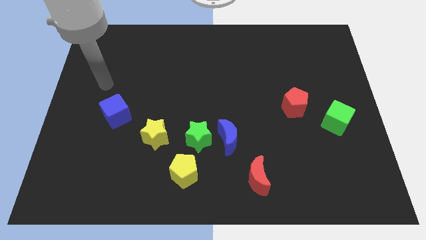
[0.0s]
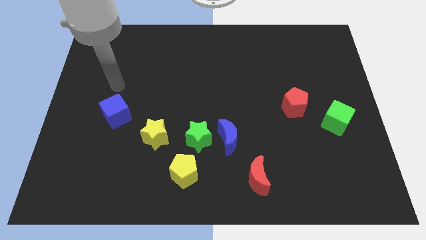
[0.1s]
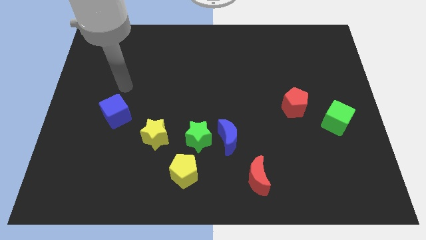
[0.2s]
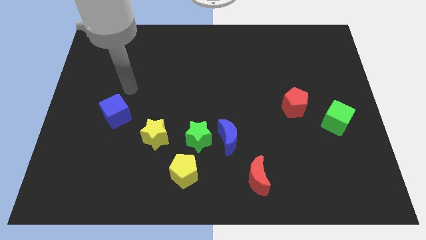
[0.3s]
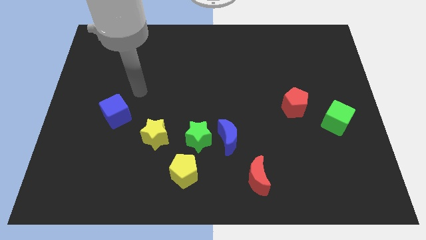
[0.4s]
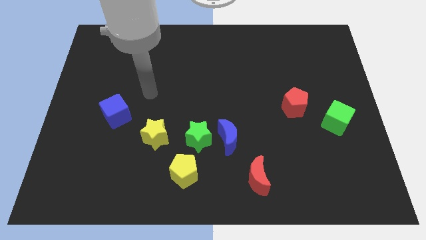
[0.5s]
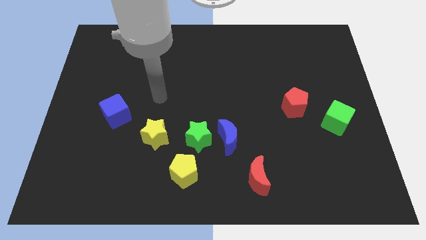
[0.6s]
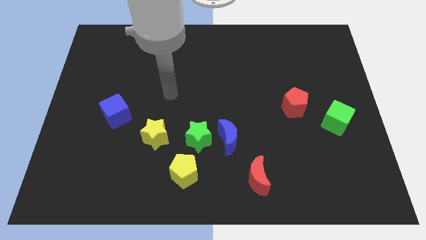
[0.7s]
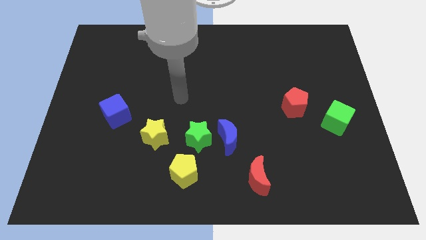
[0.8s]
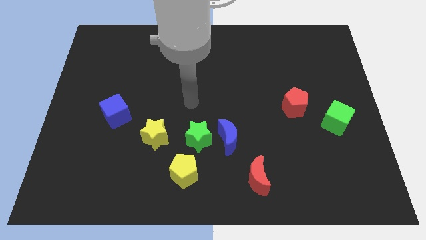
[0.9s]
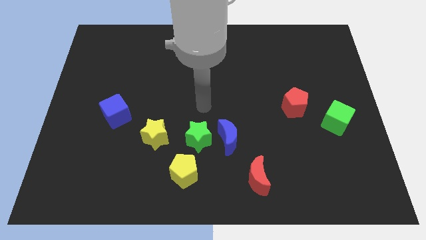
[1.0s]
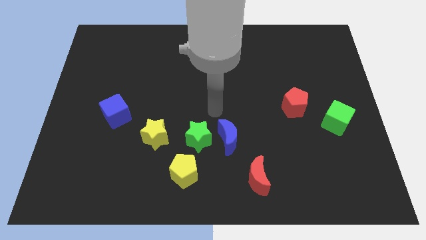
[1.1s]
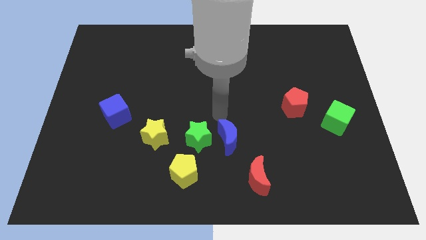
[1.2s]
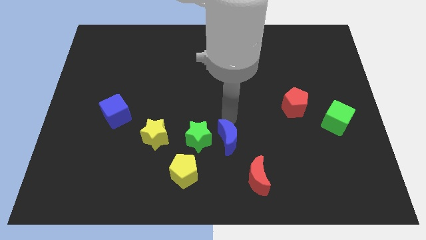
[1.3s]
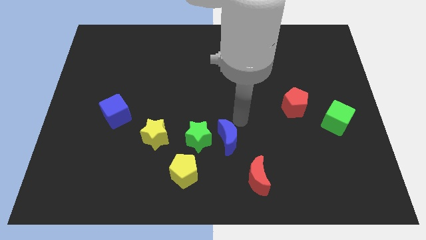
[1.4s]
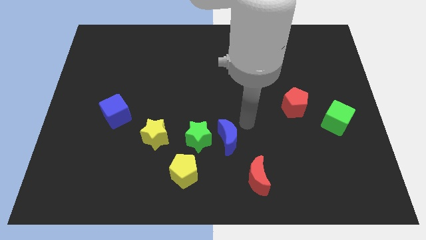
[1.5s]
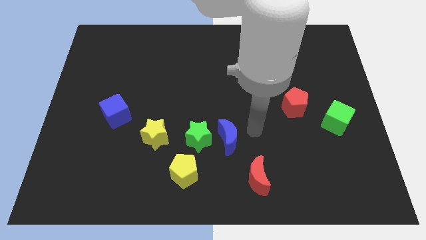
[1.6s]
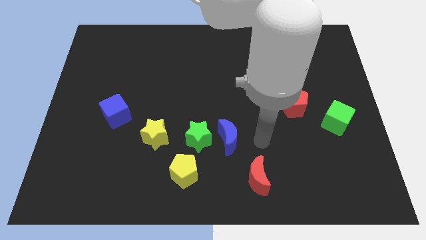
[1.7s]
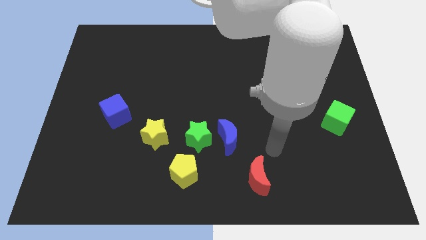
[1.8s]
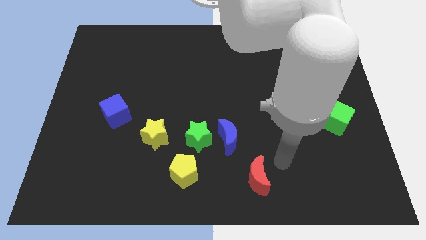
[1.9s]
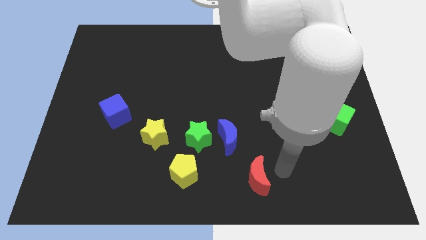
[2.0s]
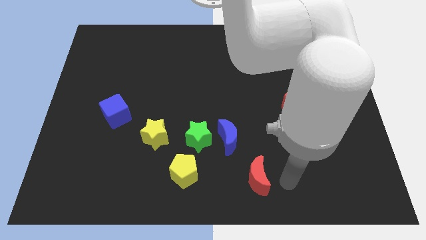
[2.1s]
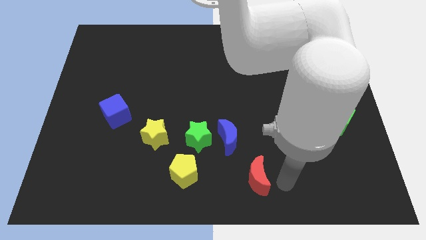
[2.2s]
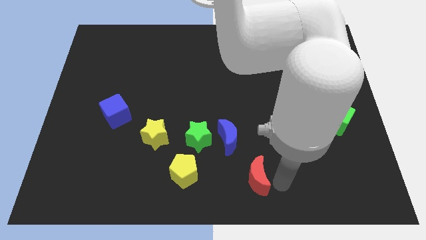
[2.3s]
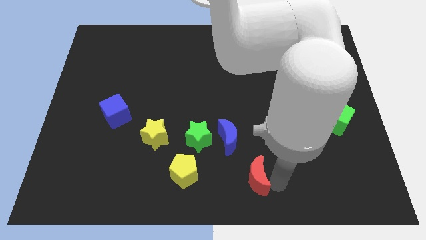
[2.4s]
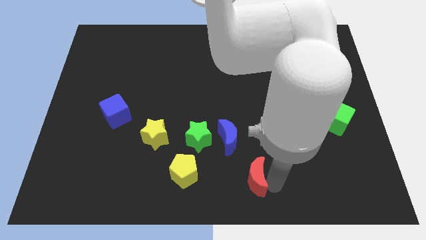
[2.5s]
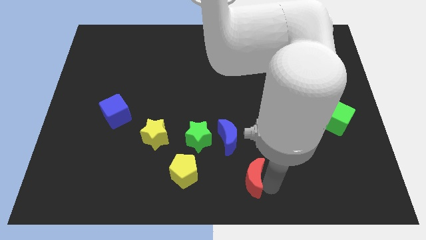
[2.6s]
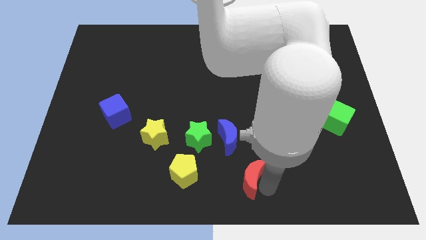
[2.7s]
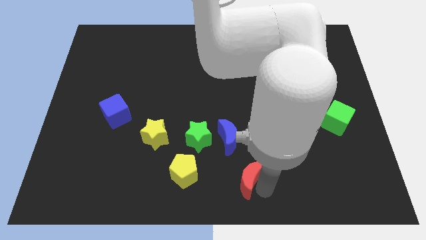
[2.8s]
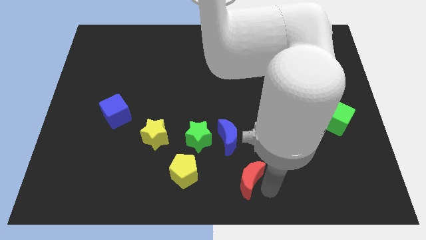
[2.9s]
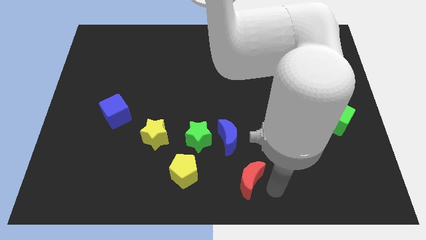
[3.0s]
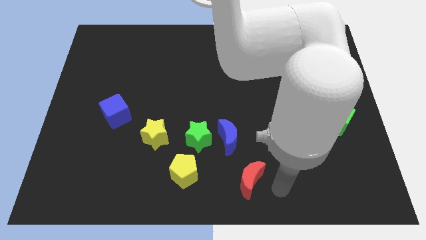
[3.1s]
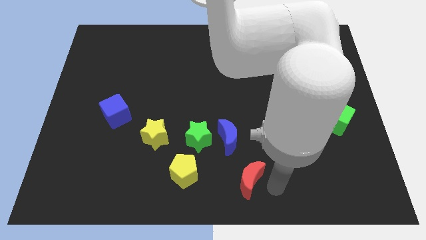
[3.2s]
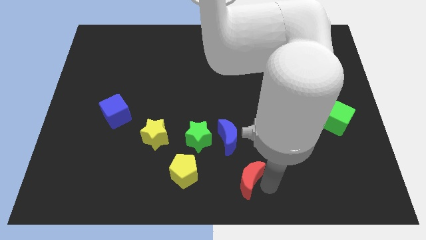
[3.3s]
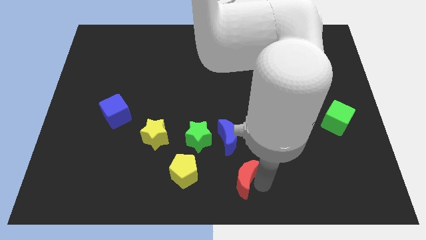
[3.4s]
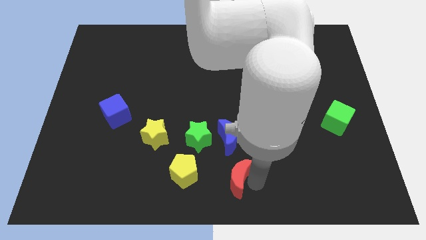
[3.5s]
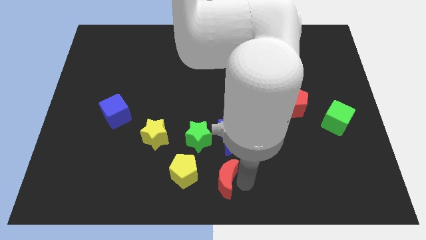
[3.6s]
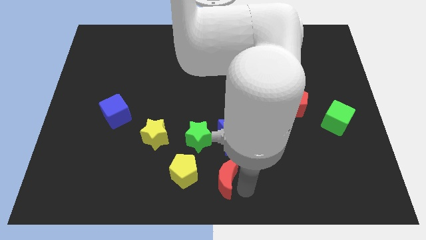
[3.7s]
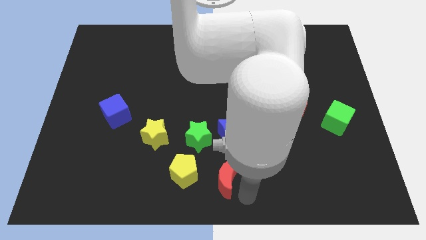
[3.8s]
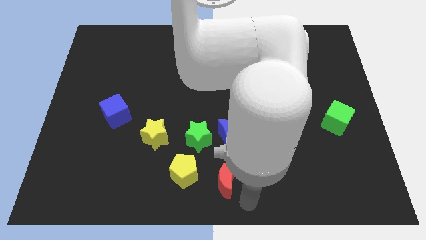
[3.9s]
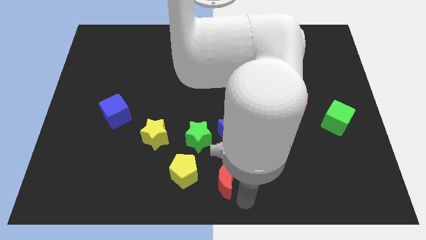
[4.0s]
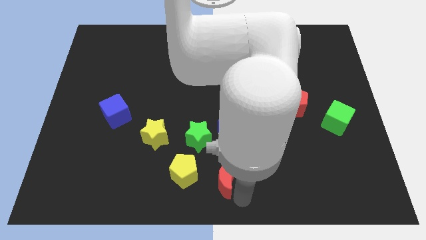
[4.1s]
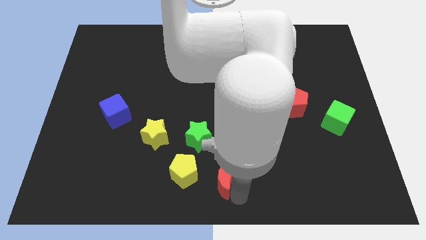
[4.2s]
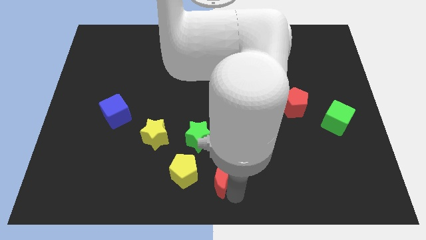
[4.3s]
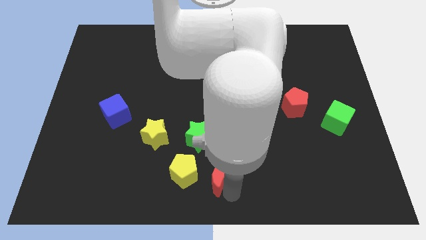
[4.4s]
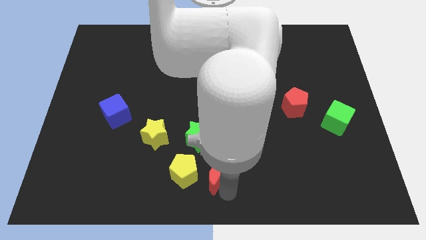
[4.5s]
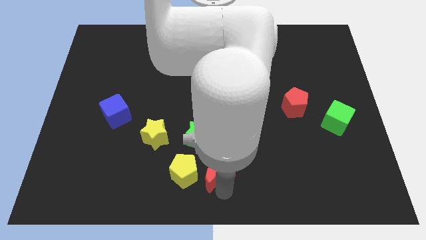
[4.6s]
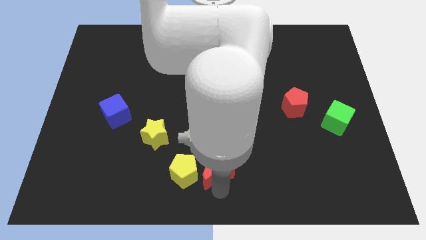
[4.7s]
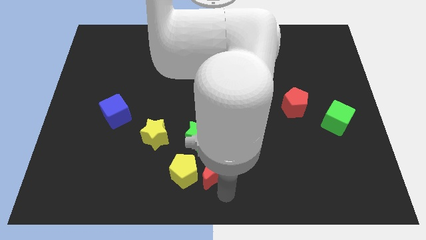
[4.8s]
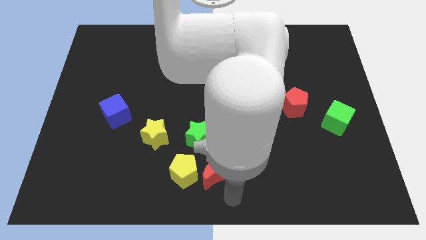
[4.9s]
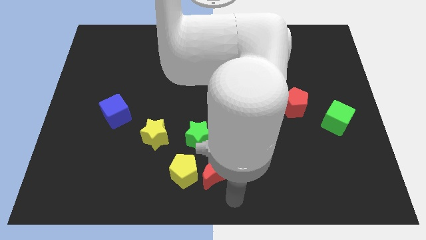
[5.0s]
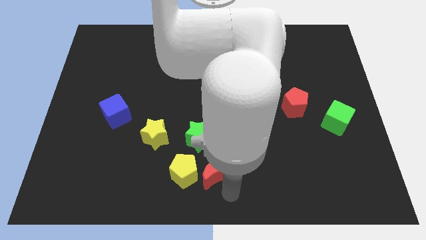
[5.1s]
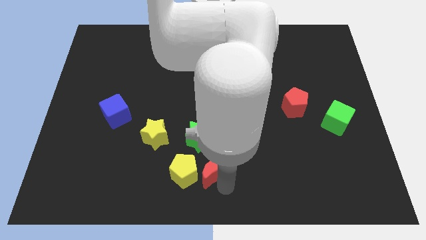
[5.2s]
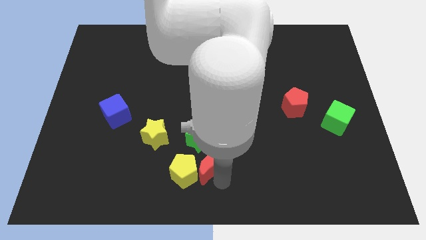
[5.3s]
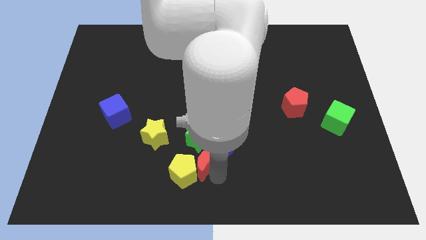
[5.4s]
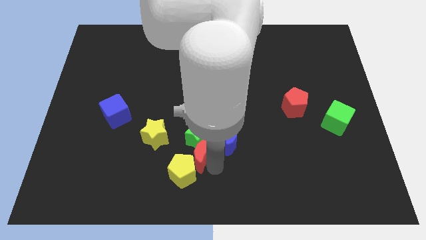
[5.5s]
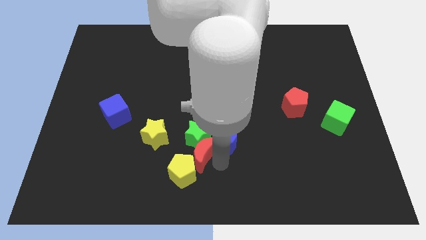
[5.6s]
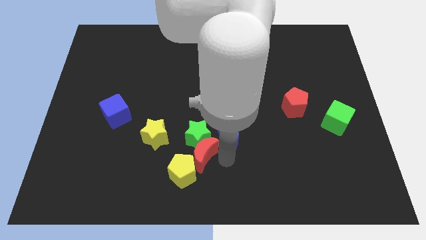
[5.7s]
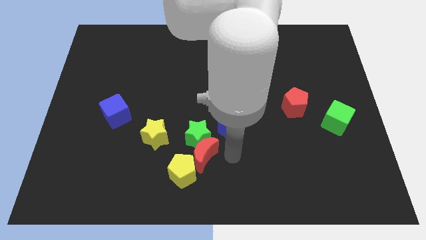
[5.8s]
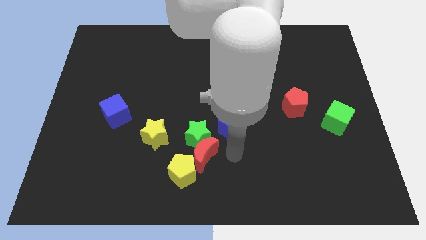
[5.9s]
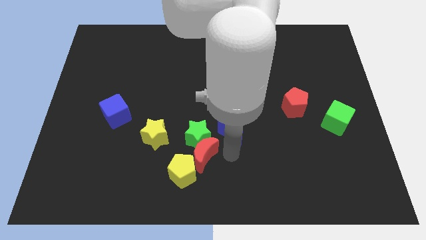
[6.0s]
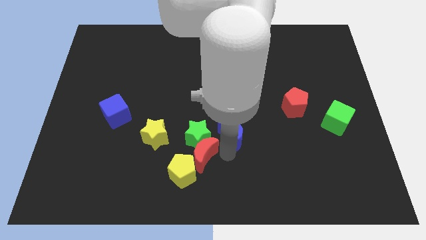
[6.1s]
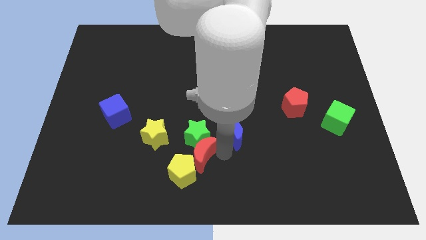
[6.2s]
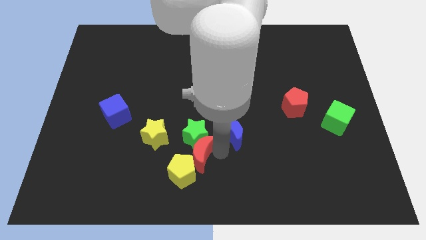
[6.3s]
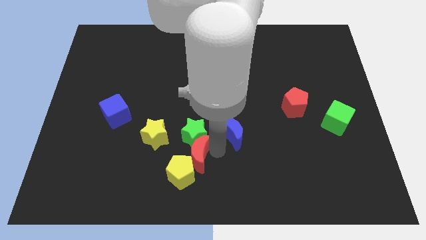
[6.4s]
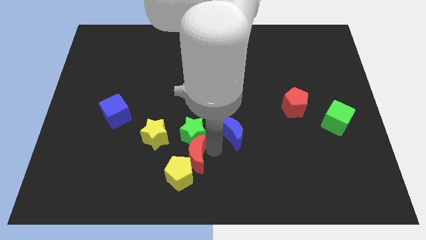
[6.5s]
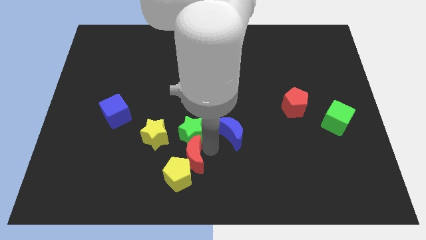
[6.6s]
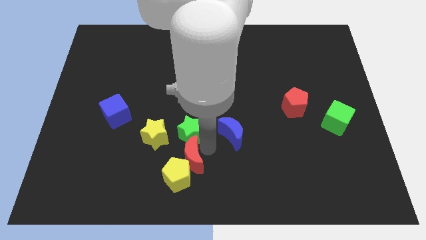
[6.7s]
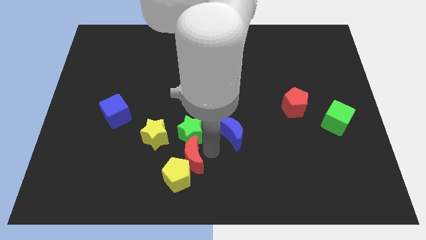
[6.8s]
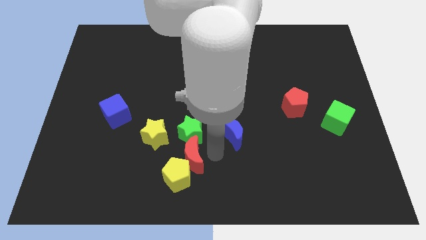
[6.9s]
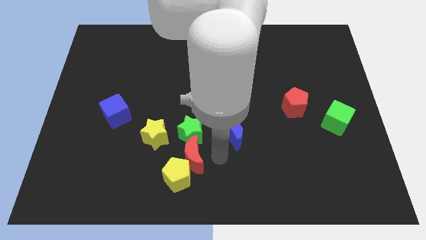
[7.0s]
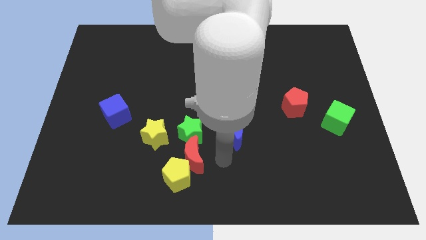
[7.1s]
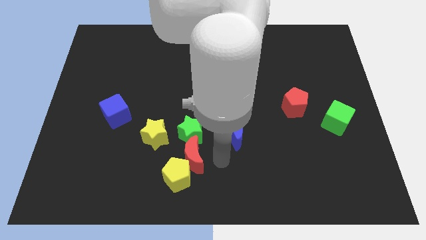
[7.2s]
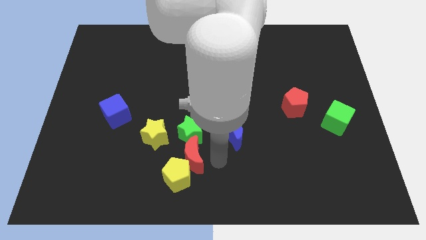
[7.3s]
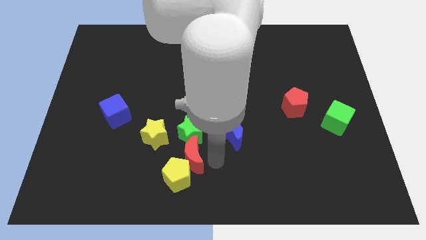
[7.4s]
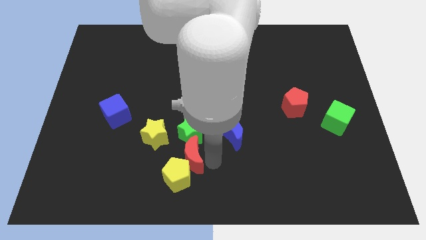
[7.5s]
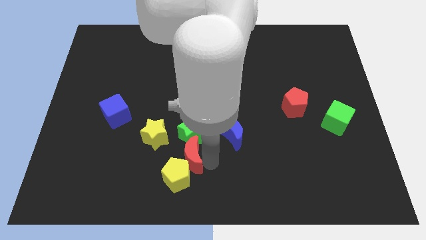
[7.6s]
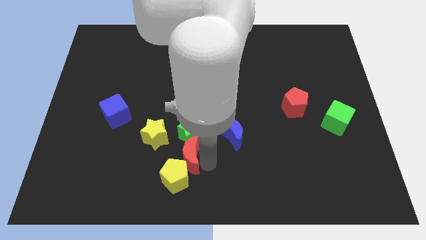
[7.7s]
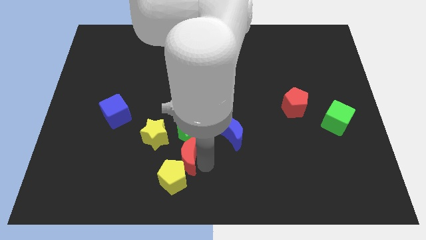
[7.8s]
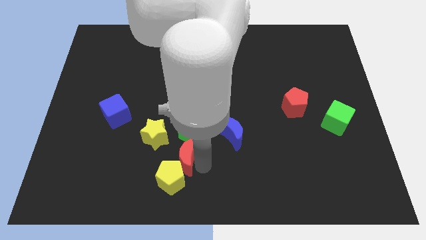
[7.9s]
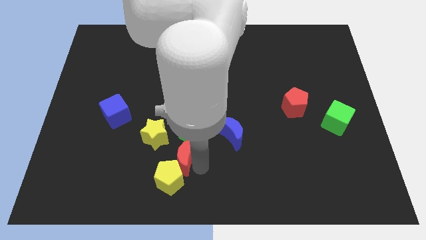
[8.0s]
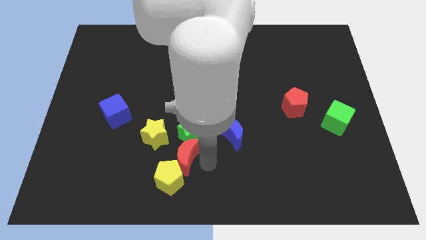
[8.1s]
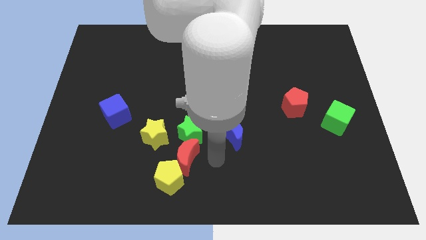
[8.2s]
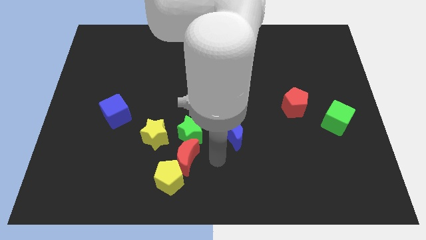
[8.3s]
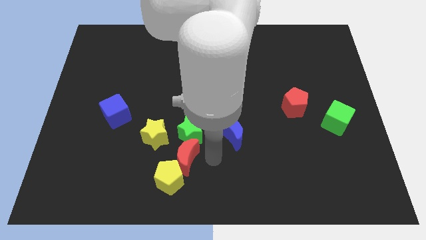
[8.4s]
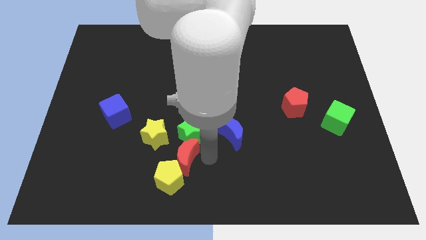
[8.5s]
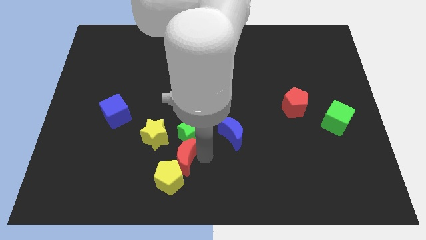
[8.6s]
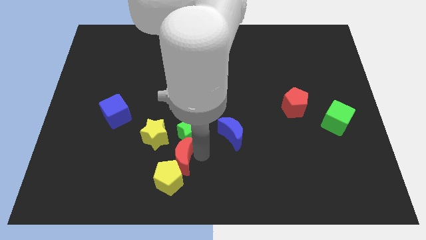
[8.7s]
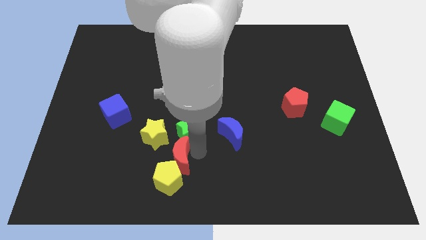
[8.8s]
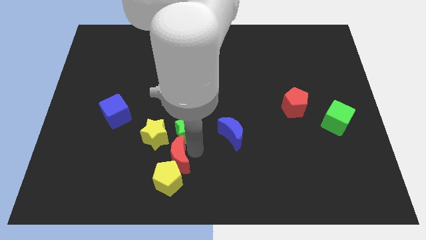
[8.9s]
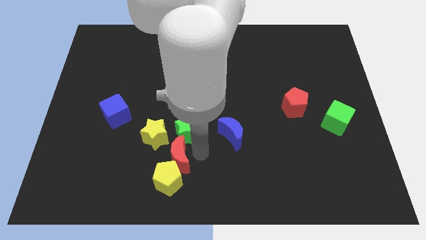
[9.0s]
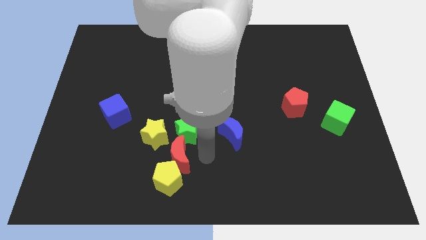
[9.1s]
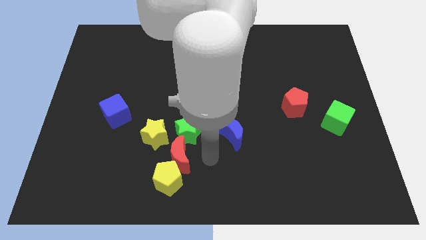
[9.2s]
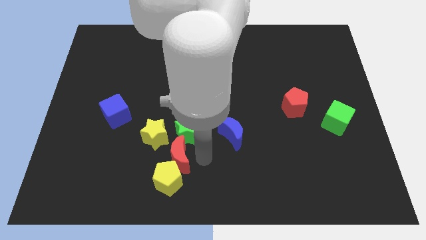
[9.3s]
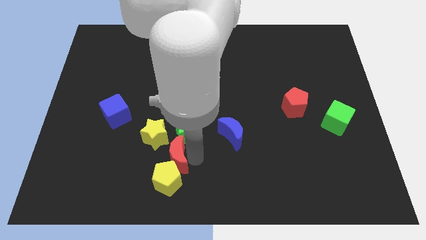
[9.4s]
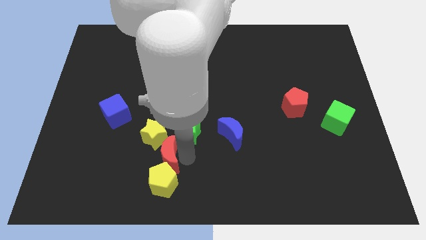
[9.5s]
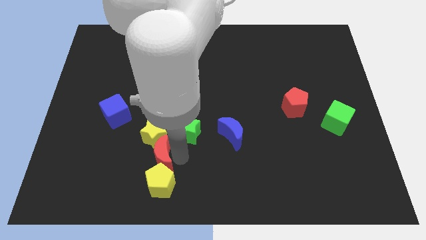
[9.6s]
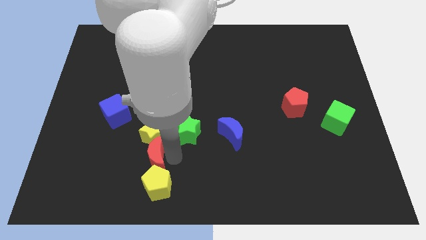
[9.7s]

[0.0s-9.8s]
push the red moon to the bottom left of the yellow star
